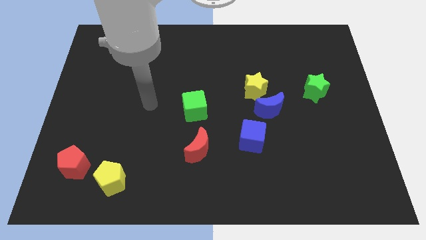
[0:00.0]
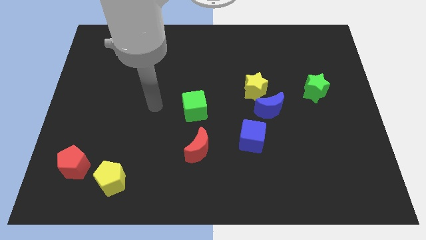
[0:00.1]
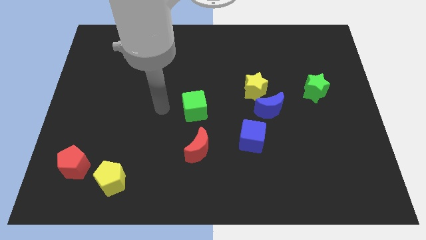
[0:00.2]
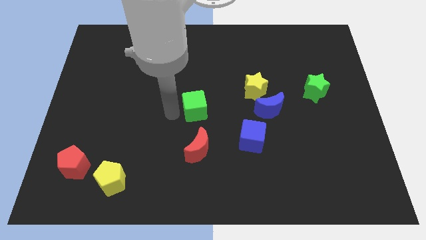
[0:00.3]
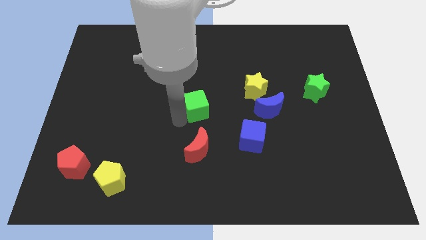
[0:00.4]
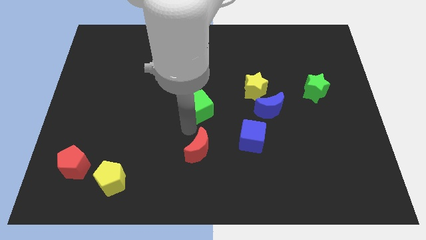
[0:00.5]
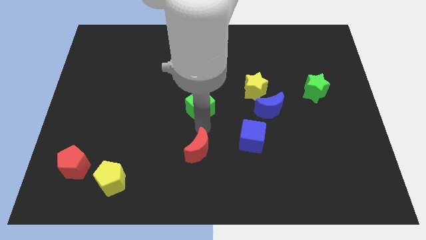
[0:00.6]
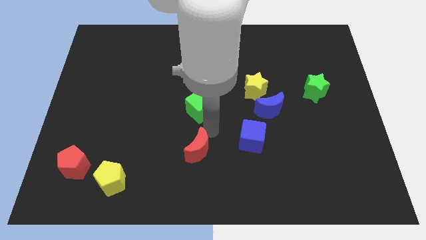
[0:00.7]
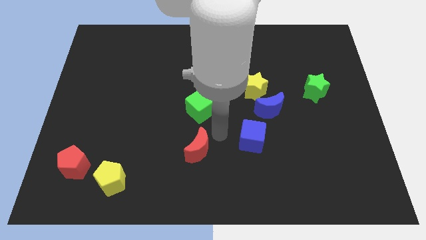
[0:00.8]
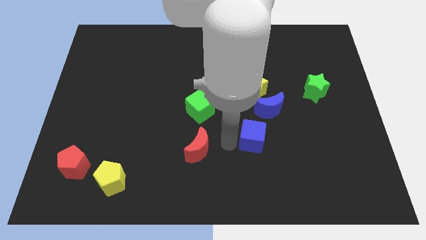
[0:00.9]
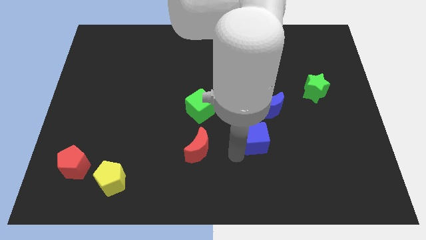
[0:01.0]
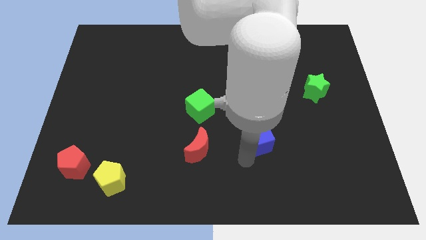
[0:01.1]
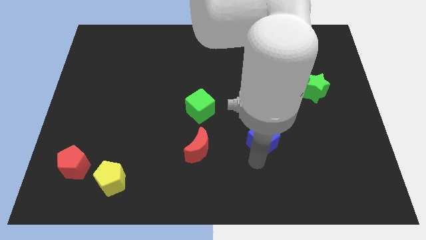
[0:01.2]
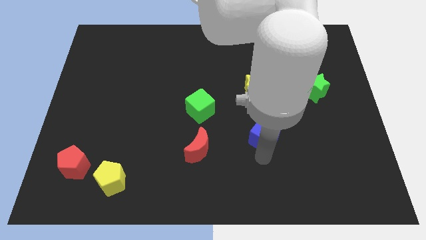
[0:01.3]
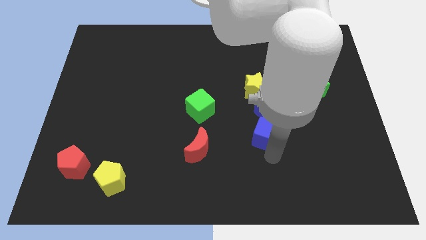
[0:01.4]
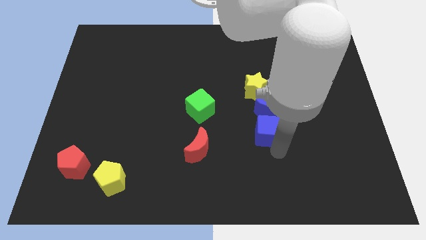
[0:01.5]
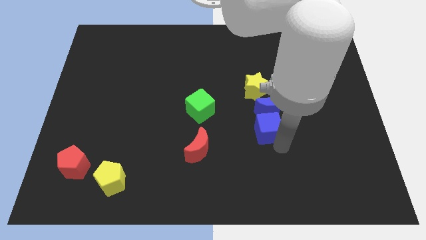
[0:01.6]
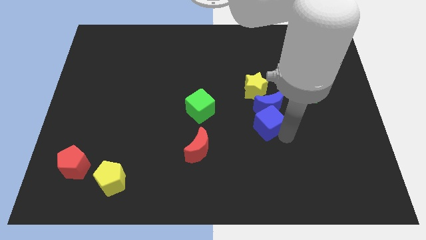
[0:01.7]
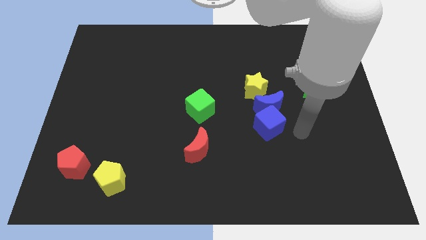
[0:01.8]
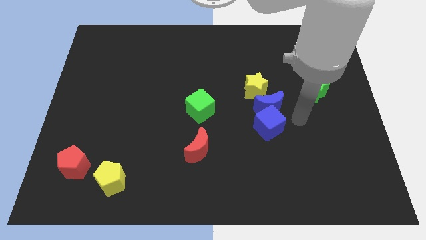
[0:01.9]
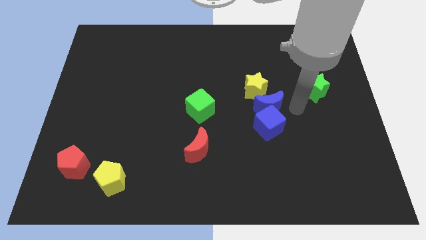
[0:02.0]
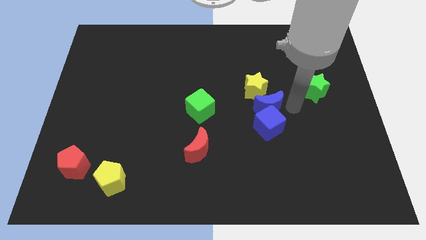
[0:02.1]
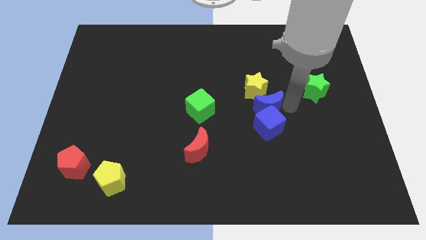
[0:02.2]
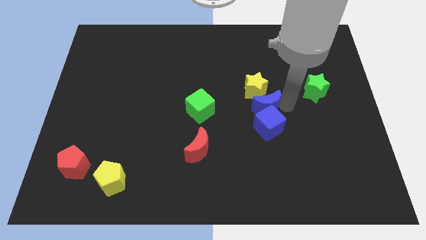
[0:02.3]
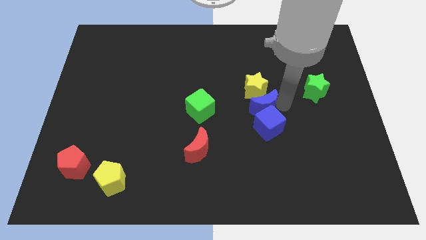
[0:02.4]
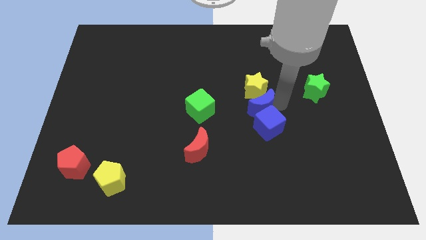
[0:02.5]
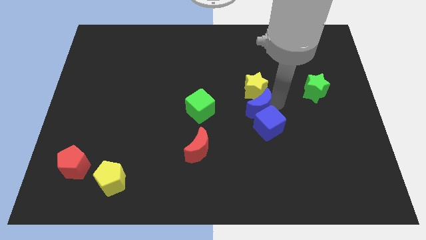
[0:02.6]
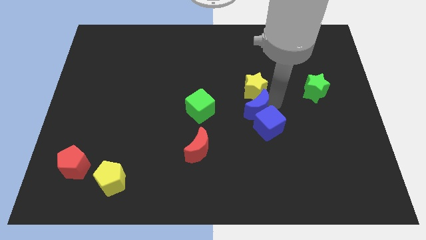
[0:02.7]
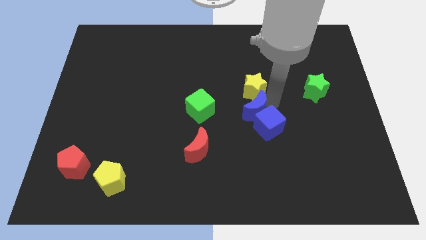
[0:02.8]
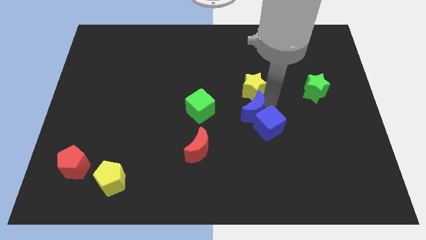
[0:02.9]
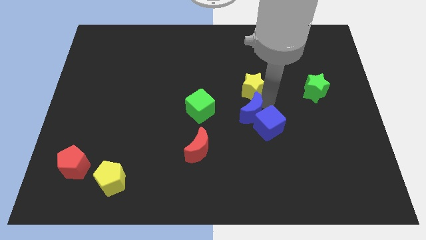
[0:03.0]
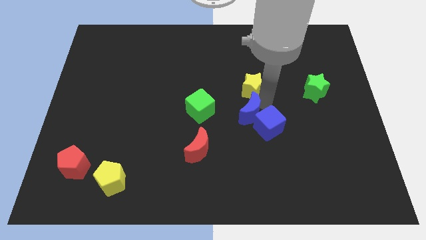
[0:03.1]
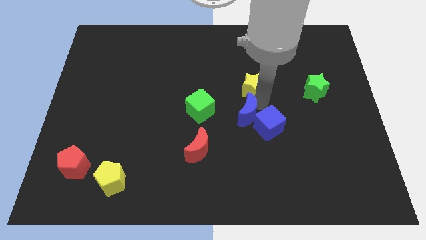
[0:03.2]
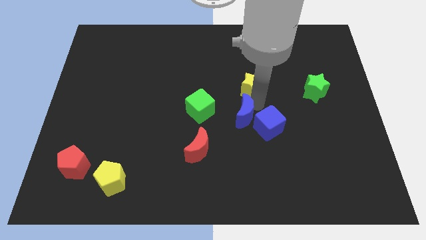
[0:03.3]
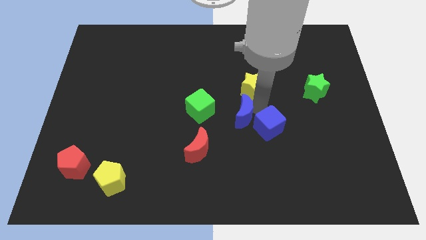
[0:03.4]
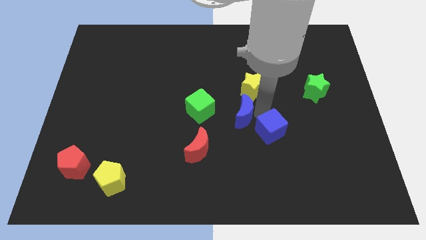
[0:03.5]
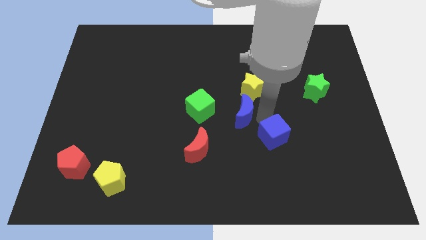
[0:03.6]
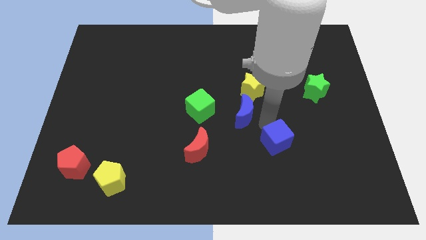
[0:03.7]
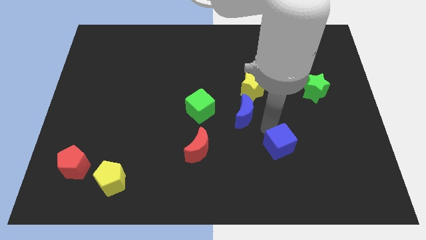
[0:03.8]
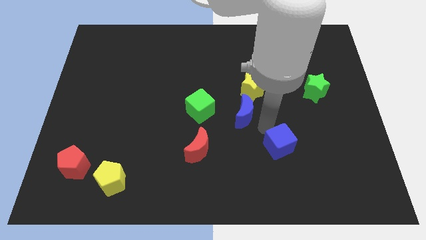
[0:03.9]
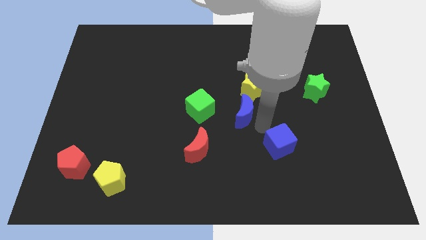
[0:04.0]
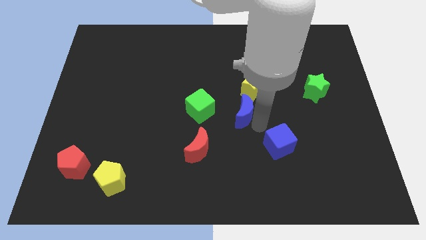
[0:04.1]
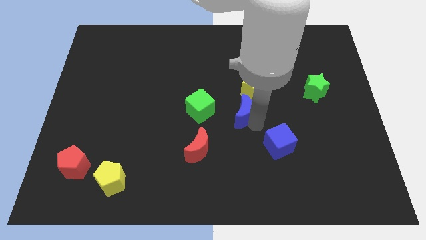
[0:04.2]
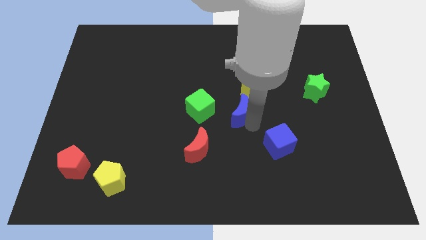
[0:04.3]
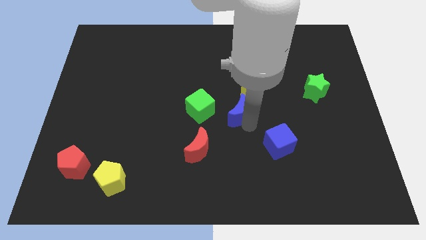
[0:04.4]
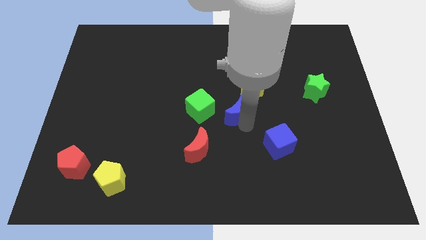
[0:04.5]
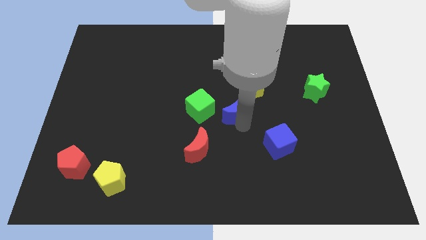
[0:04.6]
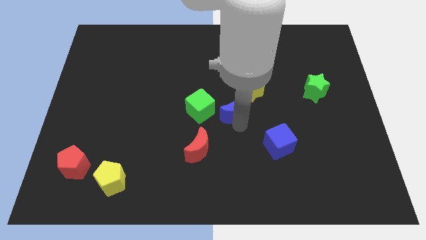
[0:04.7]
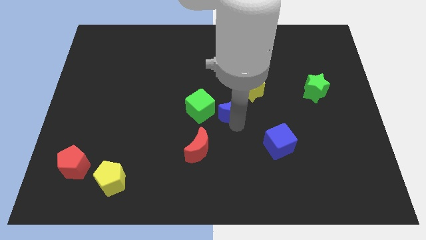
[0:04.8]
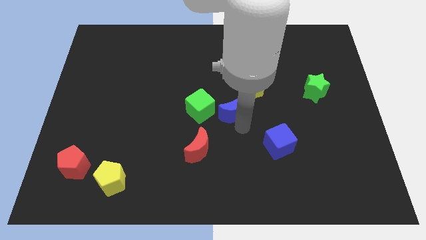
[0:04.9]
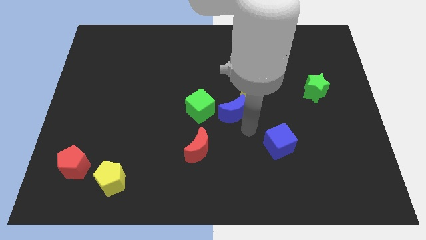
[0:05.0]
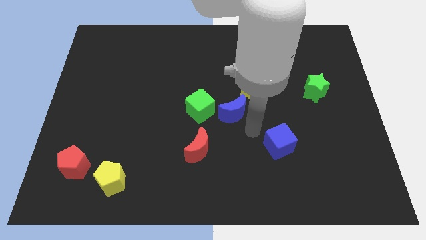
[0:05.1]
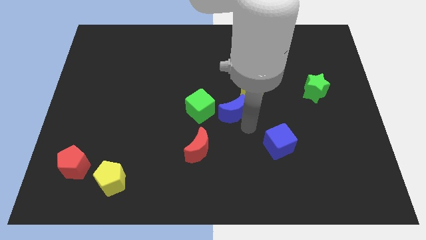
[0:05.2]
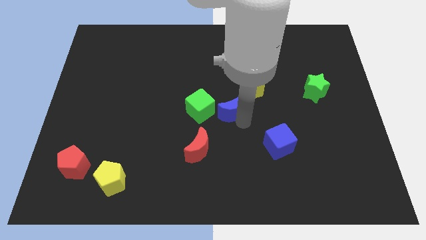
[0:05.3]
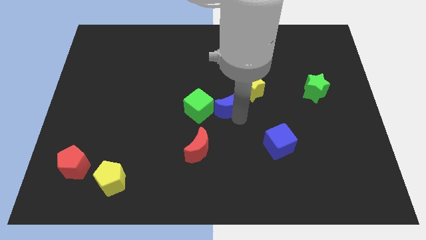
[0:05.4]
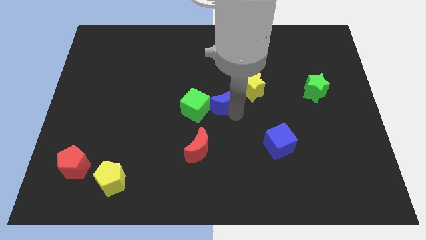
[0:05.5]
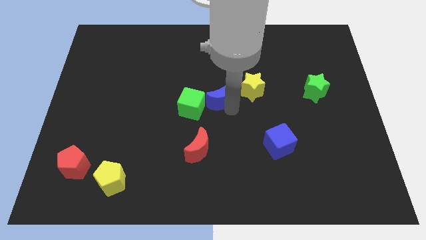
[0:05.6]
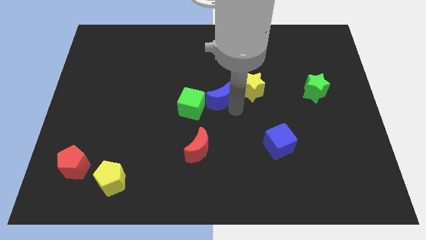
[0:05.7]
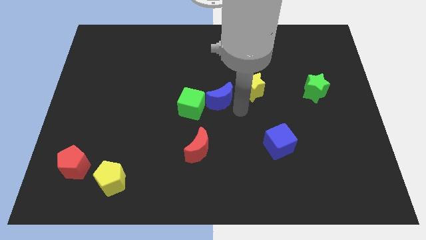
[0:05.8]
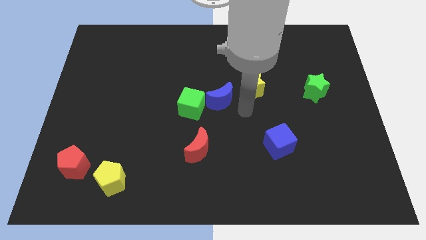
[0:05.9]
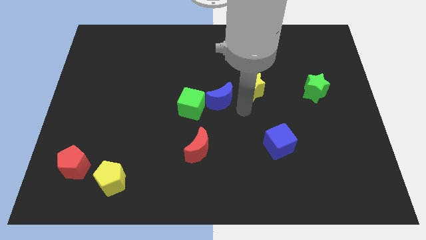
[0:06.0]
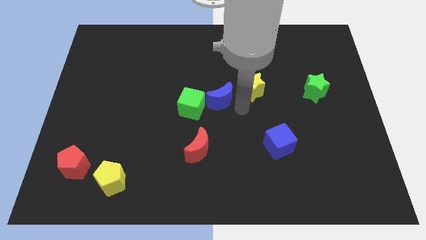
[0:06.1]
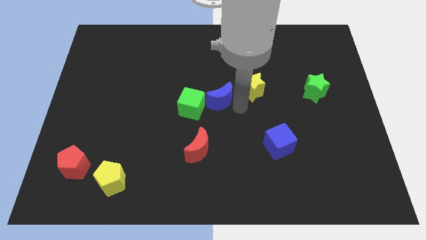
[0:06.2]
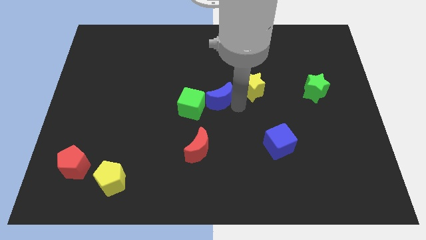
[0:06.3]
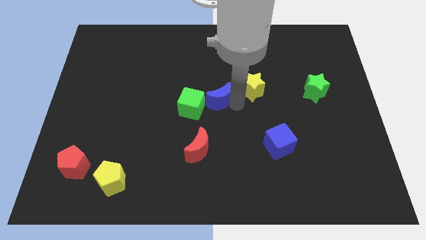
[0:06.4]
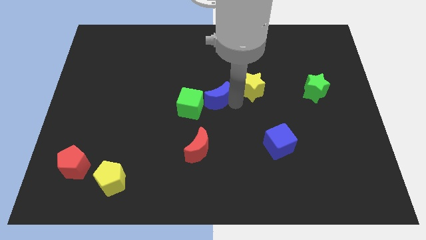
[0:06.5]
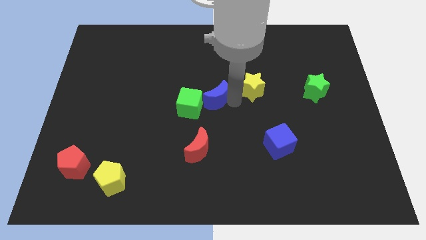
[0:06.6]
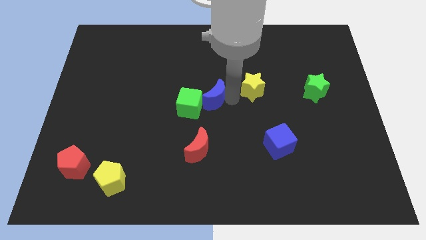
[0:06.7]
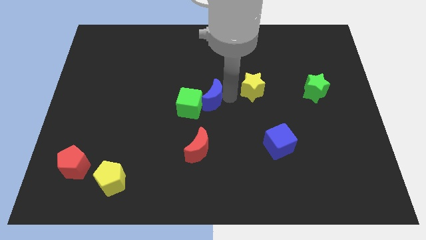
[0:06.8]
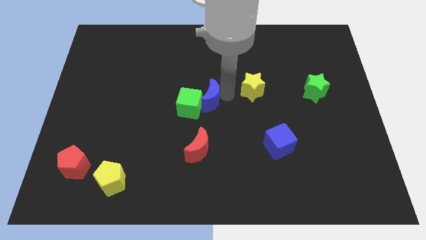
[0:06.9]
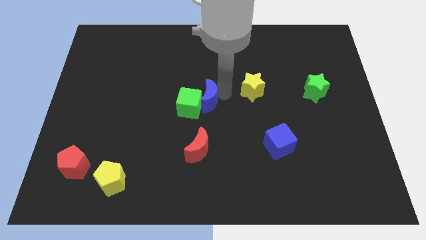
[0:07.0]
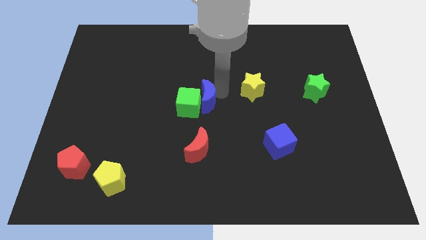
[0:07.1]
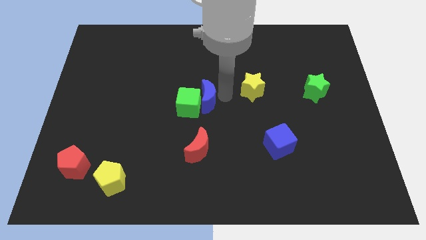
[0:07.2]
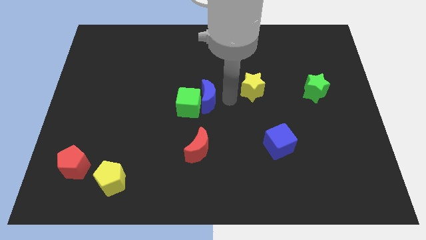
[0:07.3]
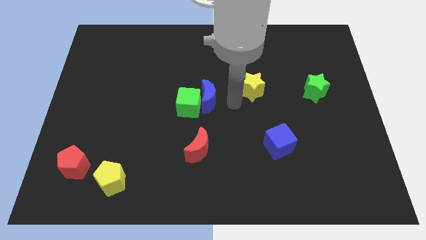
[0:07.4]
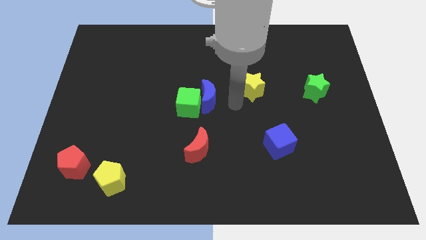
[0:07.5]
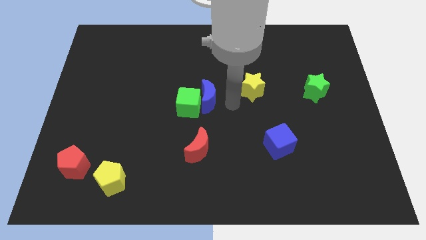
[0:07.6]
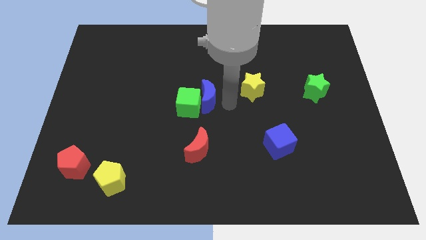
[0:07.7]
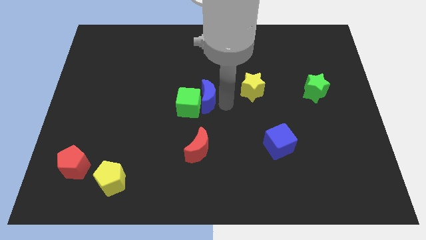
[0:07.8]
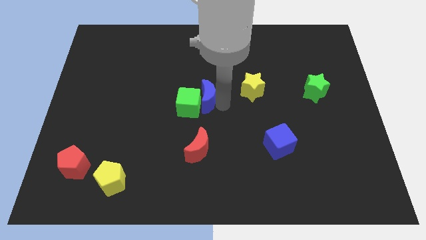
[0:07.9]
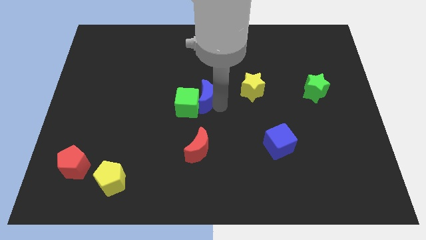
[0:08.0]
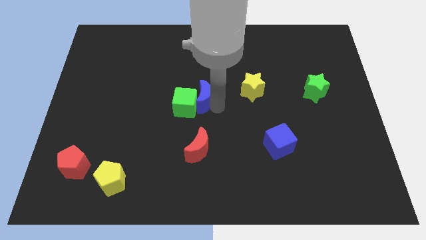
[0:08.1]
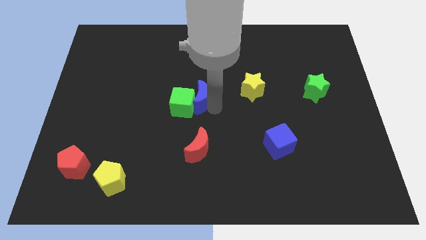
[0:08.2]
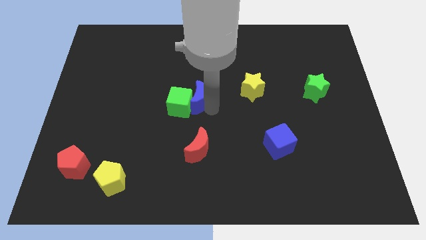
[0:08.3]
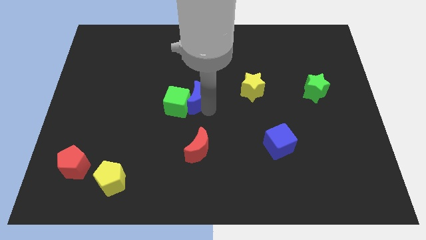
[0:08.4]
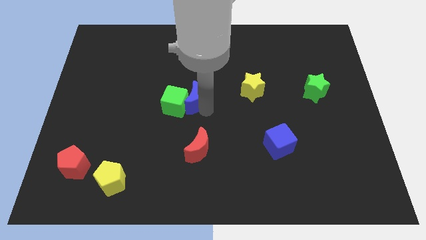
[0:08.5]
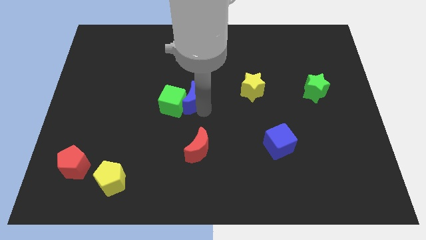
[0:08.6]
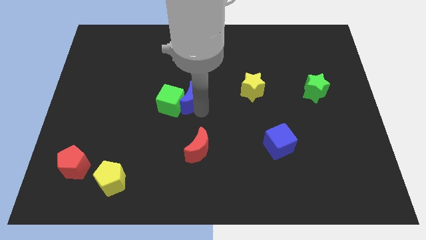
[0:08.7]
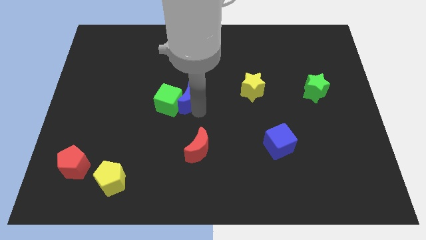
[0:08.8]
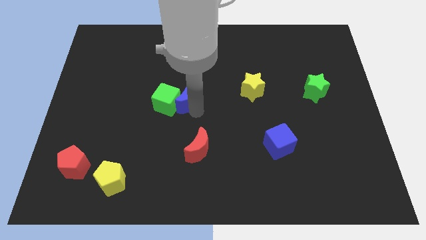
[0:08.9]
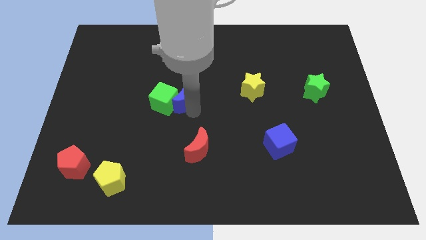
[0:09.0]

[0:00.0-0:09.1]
push the blue moon to the left
